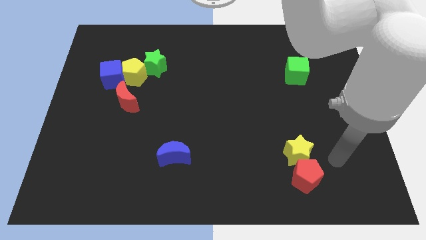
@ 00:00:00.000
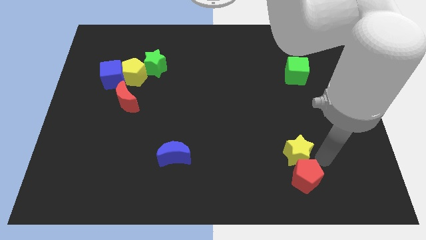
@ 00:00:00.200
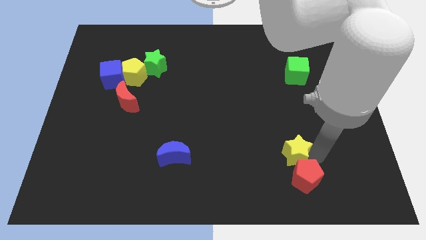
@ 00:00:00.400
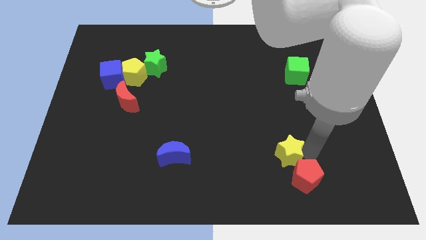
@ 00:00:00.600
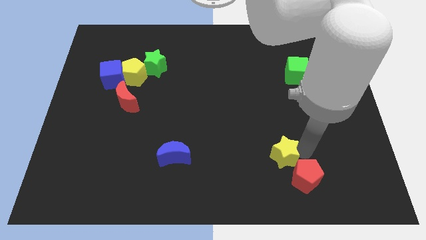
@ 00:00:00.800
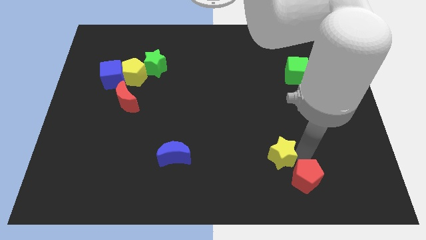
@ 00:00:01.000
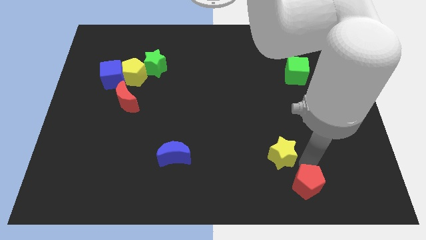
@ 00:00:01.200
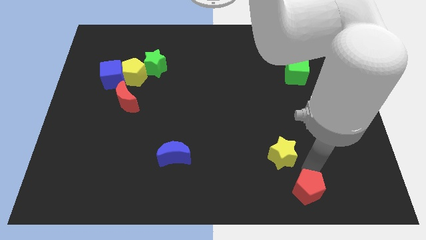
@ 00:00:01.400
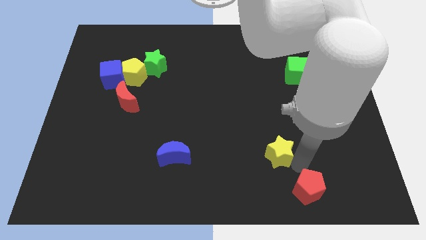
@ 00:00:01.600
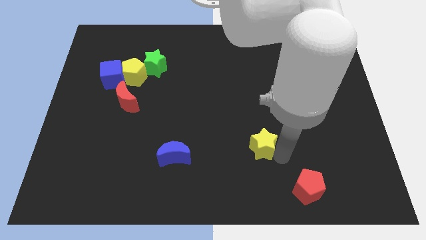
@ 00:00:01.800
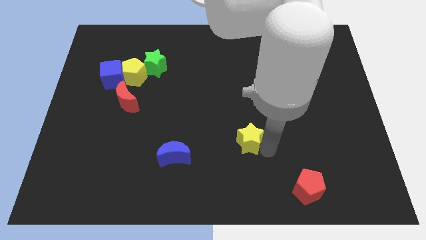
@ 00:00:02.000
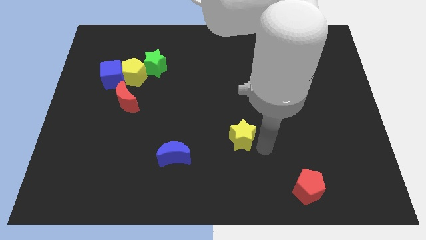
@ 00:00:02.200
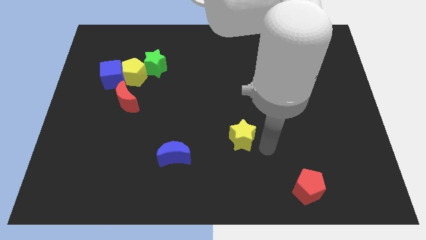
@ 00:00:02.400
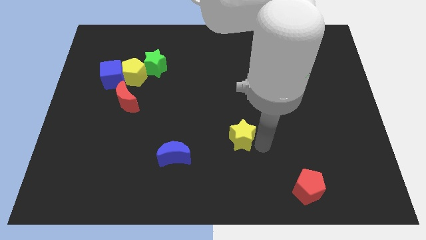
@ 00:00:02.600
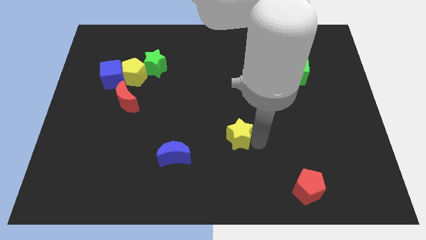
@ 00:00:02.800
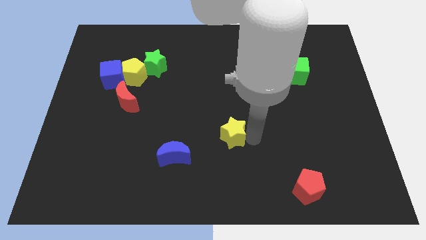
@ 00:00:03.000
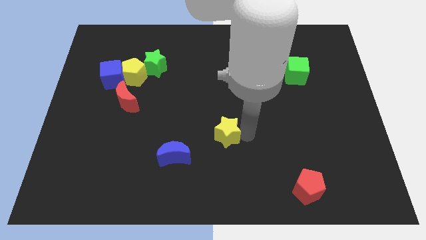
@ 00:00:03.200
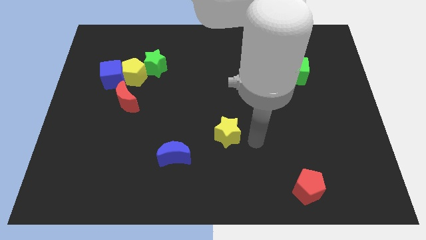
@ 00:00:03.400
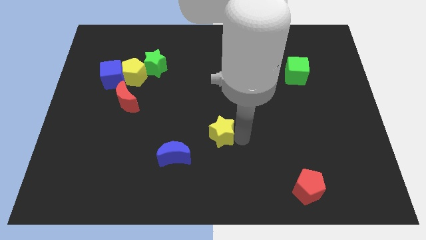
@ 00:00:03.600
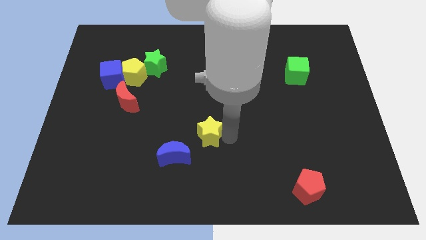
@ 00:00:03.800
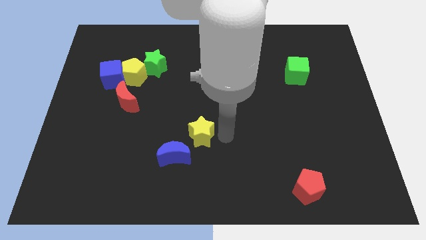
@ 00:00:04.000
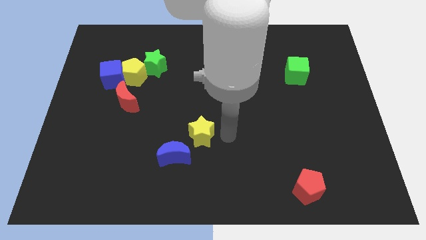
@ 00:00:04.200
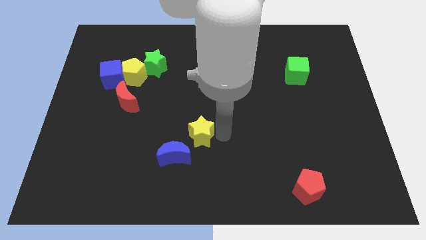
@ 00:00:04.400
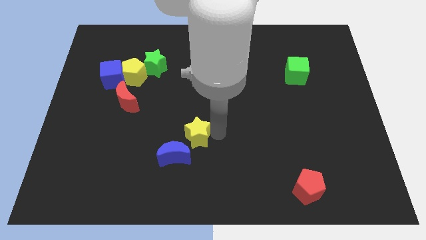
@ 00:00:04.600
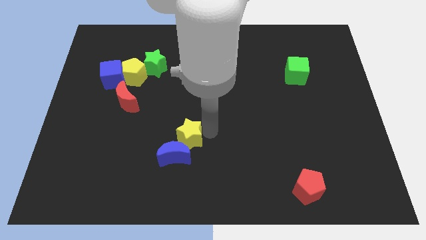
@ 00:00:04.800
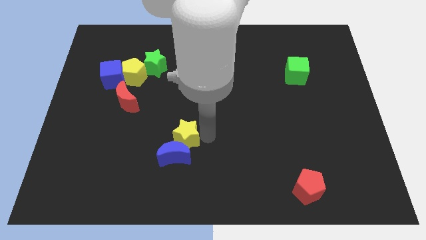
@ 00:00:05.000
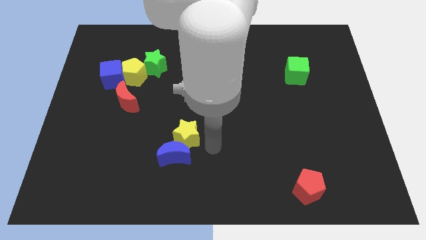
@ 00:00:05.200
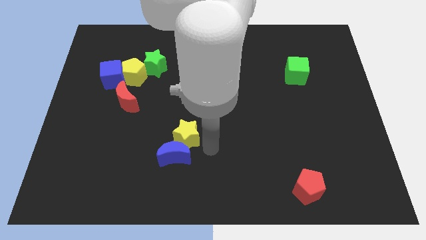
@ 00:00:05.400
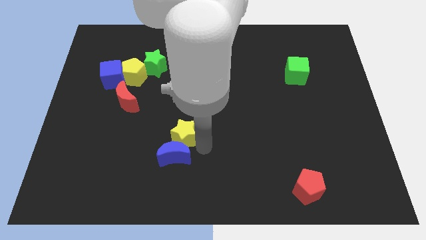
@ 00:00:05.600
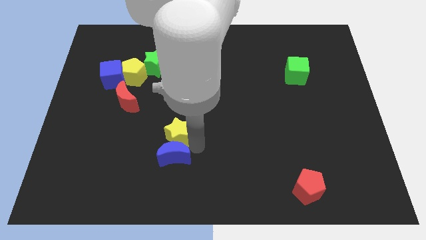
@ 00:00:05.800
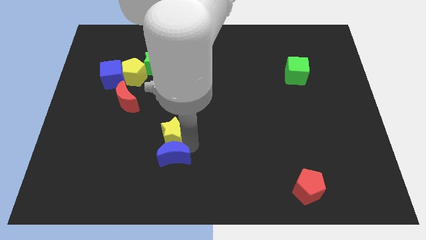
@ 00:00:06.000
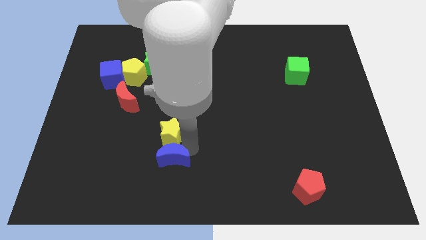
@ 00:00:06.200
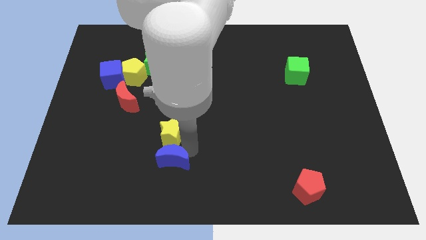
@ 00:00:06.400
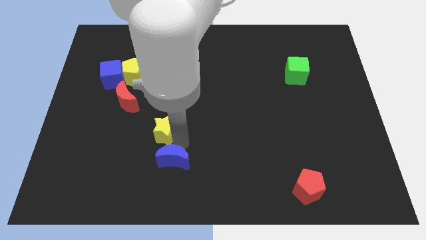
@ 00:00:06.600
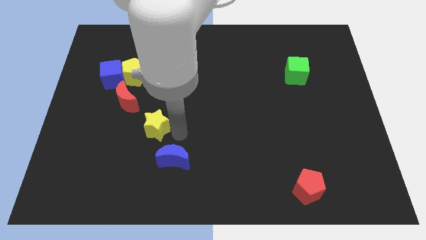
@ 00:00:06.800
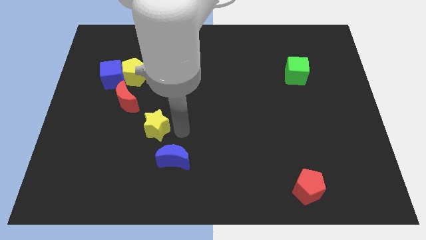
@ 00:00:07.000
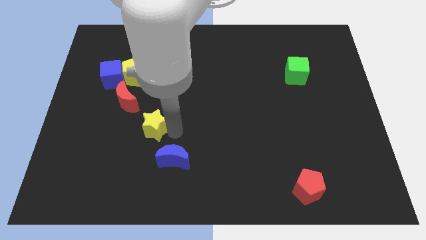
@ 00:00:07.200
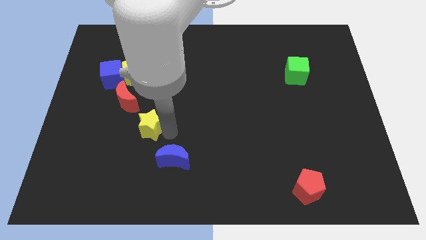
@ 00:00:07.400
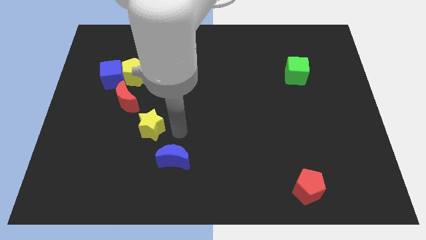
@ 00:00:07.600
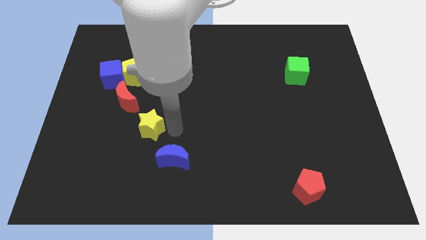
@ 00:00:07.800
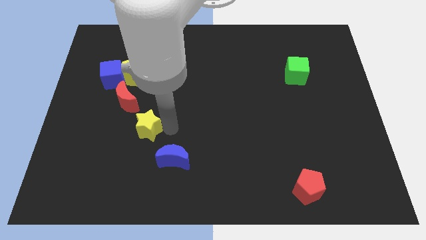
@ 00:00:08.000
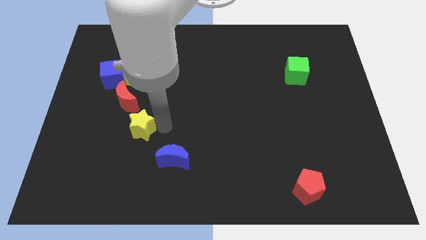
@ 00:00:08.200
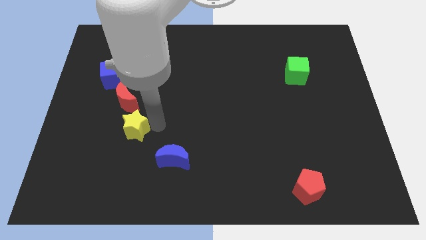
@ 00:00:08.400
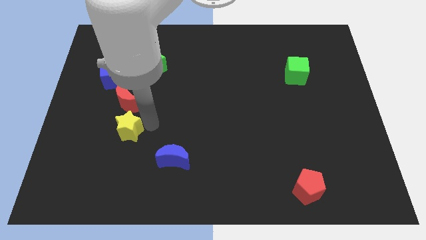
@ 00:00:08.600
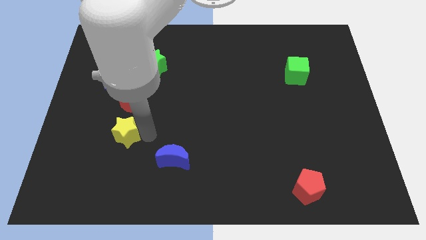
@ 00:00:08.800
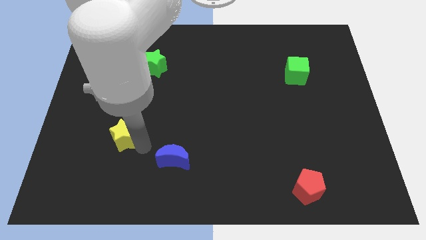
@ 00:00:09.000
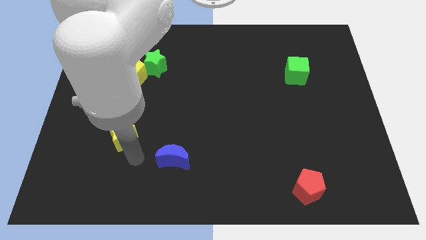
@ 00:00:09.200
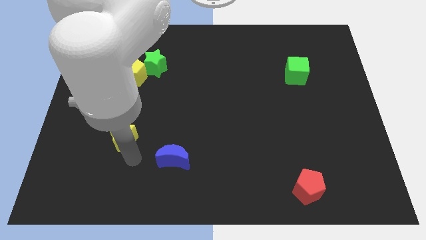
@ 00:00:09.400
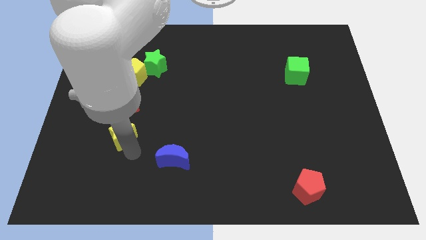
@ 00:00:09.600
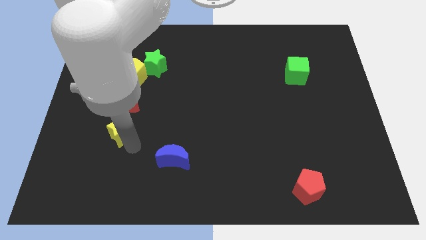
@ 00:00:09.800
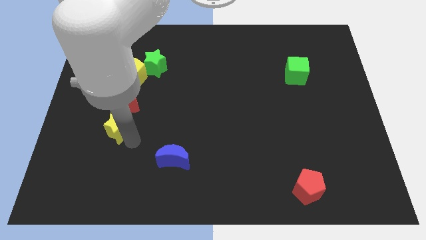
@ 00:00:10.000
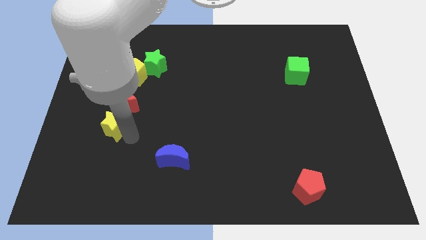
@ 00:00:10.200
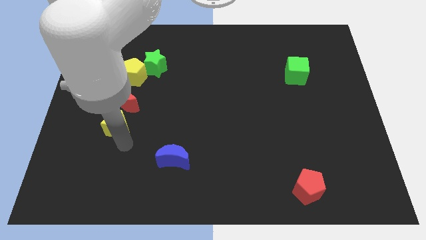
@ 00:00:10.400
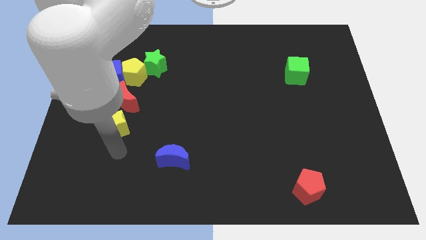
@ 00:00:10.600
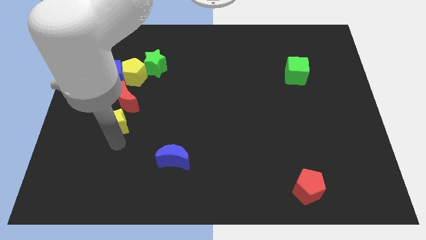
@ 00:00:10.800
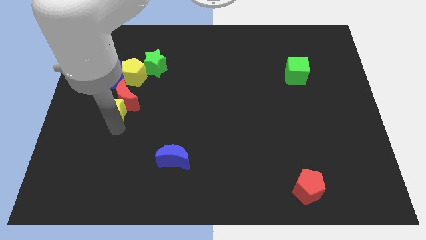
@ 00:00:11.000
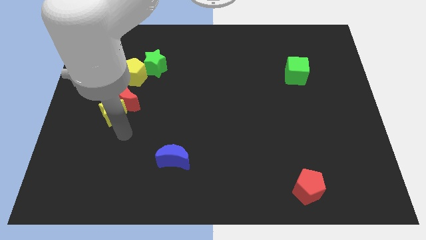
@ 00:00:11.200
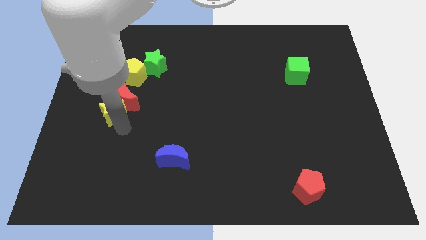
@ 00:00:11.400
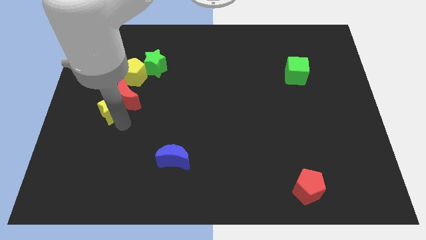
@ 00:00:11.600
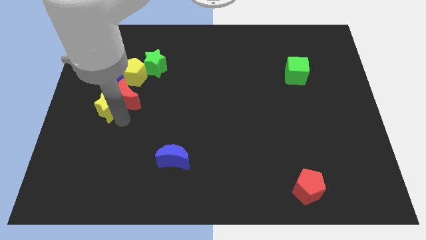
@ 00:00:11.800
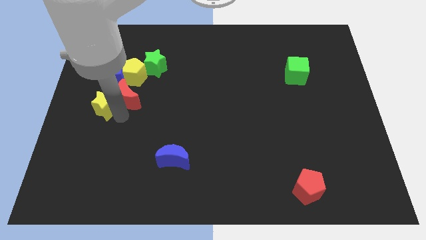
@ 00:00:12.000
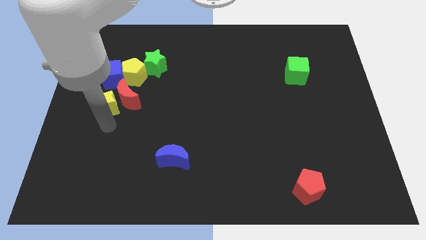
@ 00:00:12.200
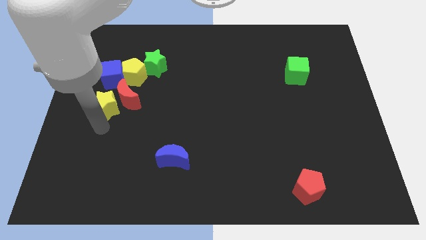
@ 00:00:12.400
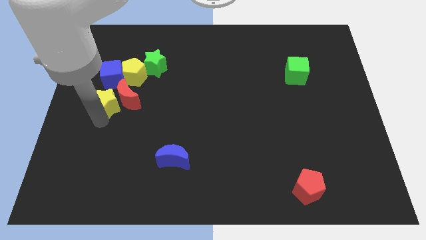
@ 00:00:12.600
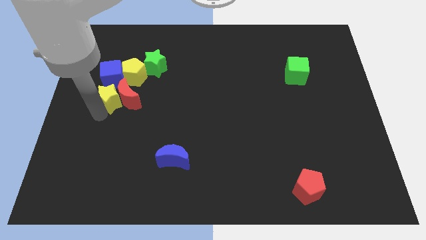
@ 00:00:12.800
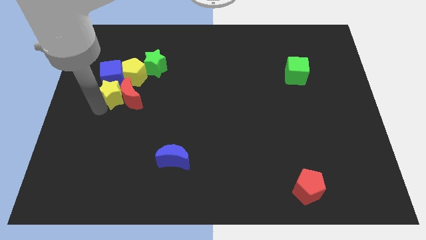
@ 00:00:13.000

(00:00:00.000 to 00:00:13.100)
put the yellow star towards the blue cube
